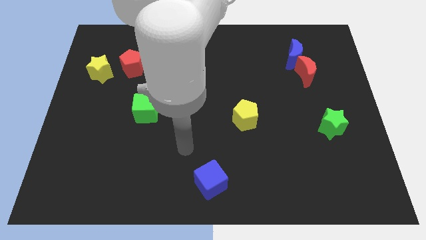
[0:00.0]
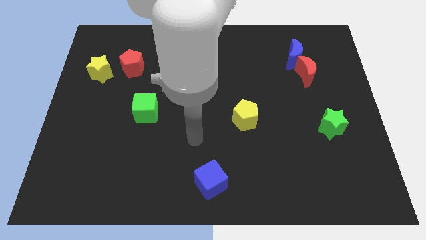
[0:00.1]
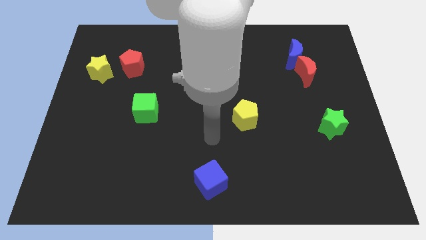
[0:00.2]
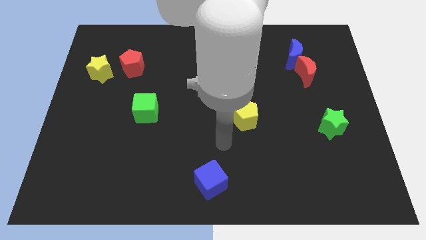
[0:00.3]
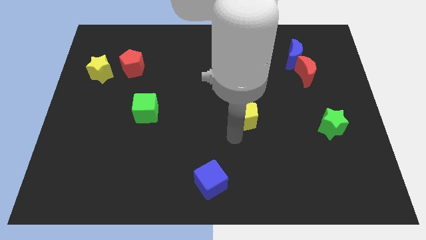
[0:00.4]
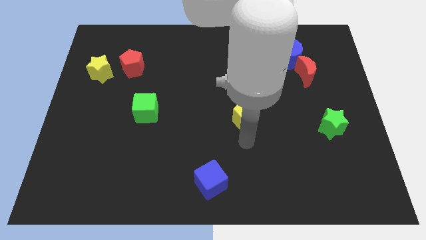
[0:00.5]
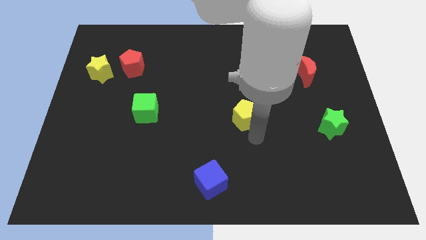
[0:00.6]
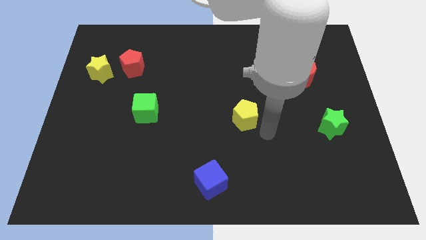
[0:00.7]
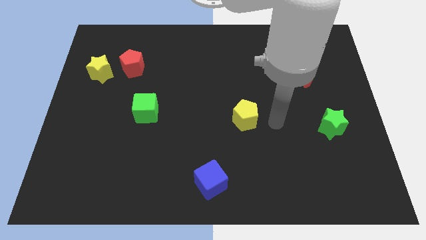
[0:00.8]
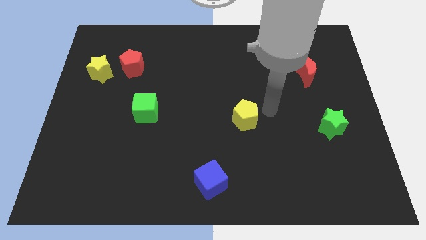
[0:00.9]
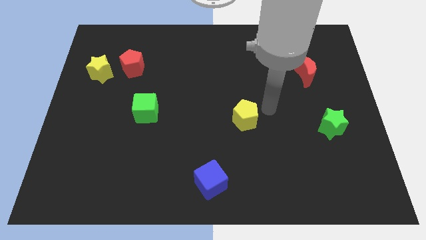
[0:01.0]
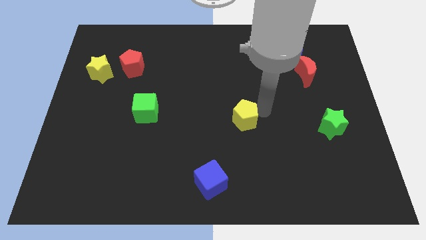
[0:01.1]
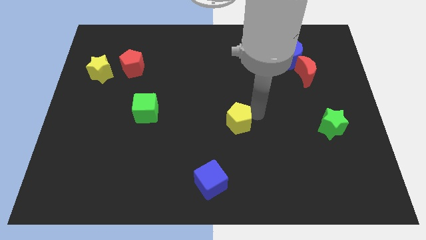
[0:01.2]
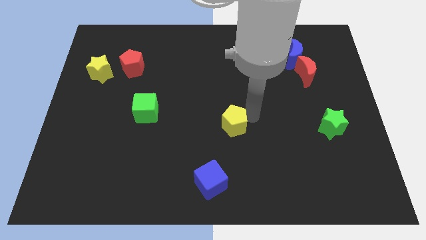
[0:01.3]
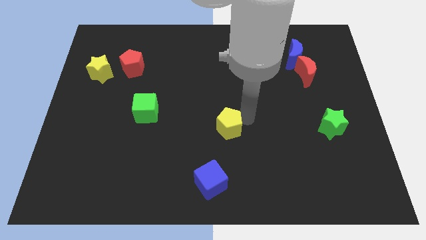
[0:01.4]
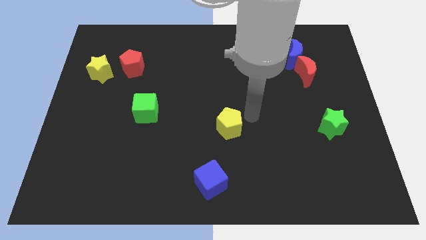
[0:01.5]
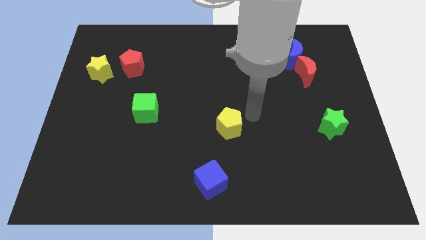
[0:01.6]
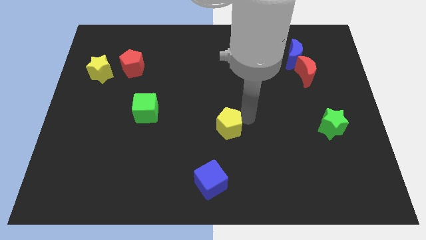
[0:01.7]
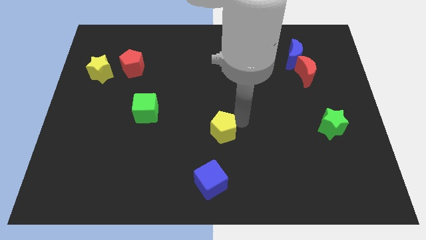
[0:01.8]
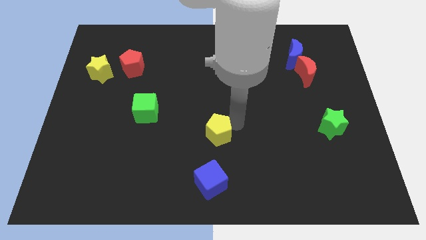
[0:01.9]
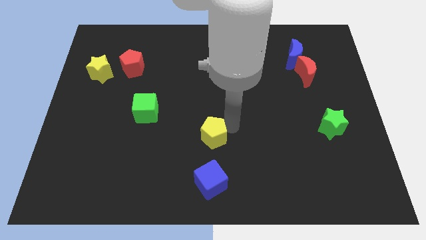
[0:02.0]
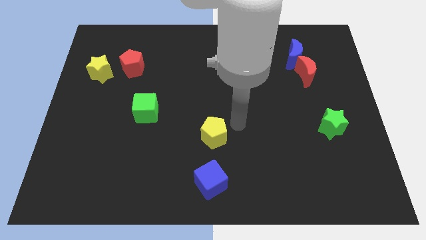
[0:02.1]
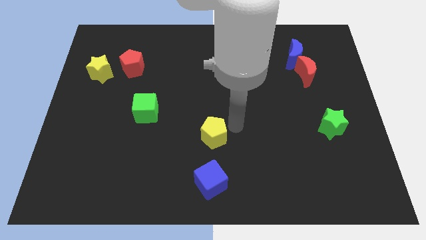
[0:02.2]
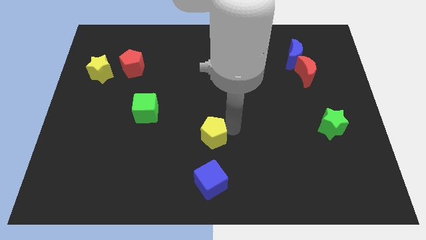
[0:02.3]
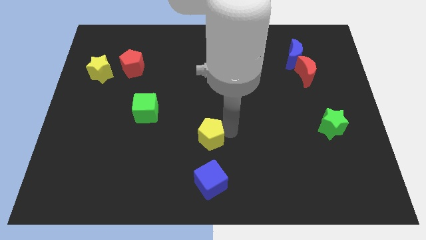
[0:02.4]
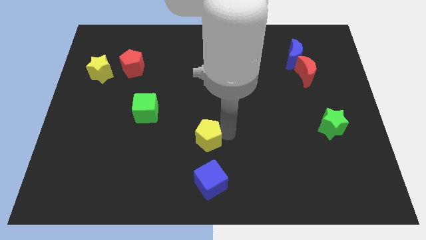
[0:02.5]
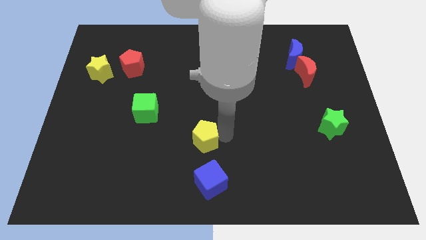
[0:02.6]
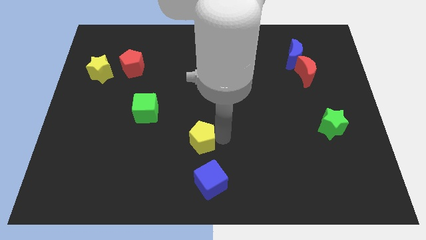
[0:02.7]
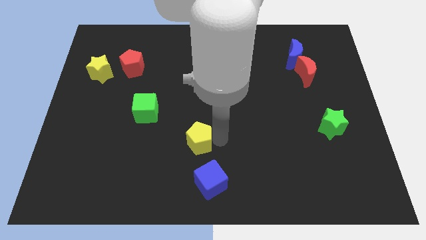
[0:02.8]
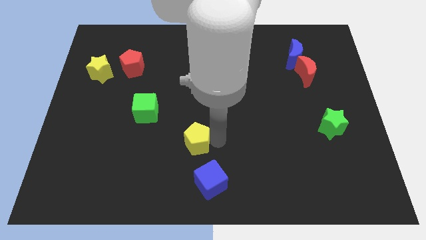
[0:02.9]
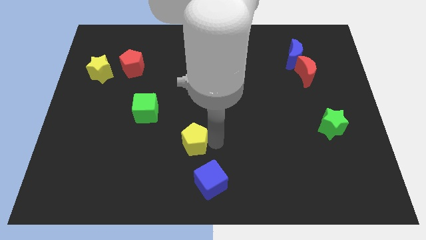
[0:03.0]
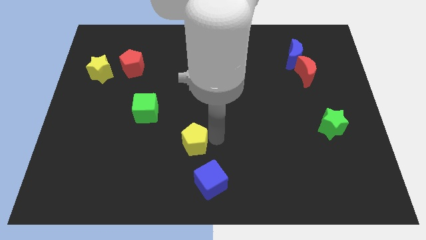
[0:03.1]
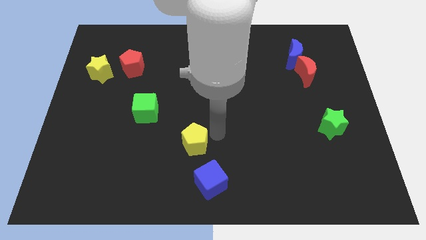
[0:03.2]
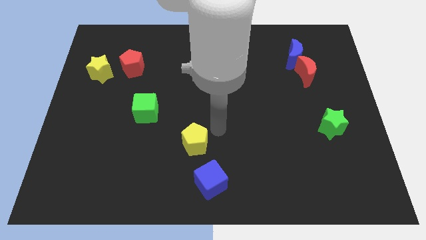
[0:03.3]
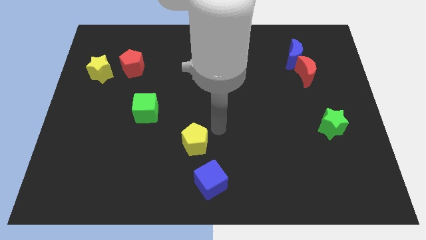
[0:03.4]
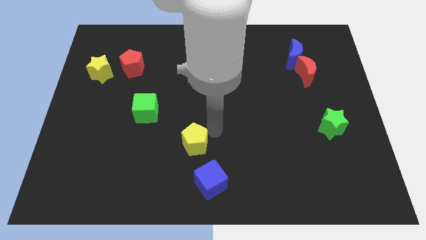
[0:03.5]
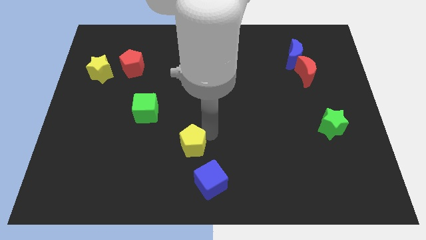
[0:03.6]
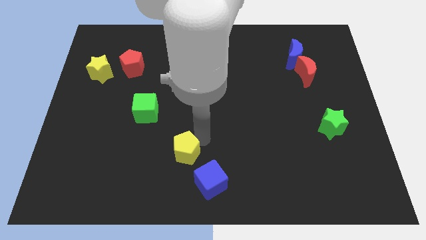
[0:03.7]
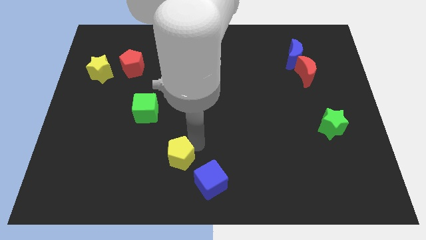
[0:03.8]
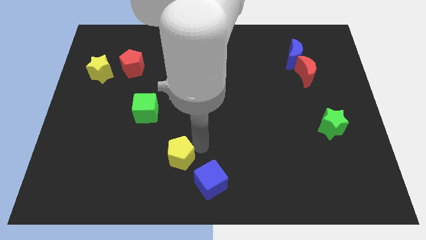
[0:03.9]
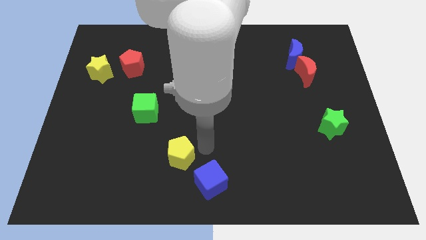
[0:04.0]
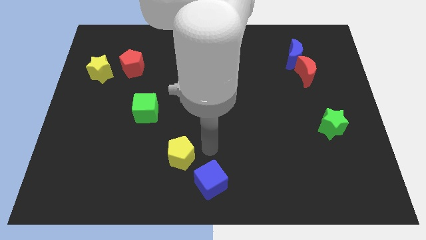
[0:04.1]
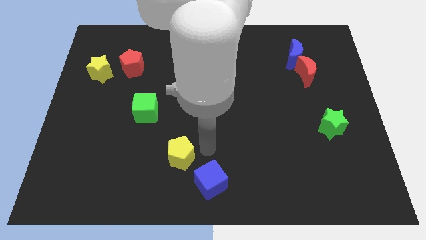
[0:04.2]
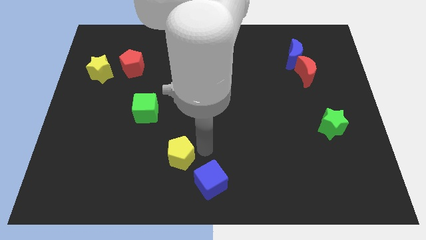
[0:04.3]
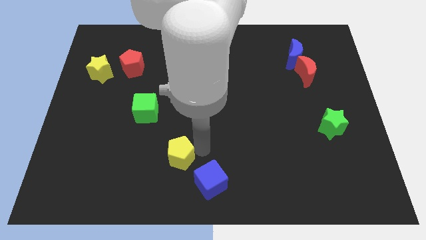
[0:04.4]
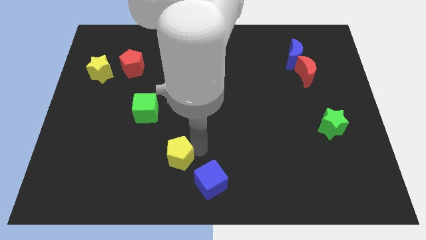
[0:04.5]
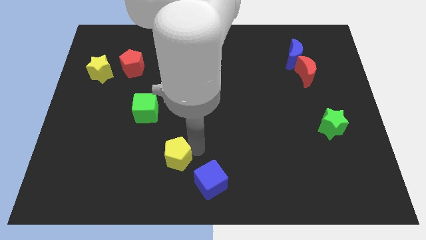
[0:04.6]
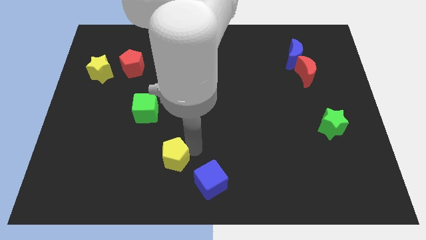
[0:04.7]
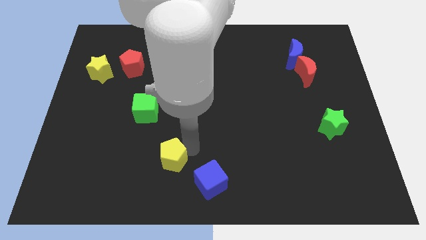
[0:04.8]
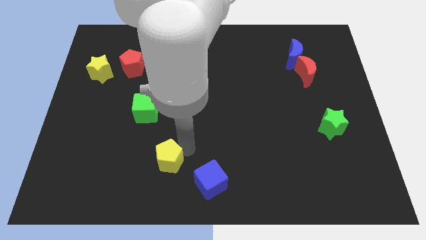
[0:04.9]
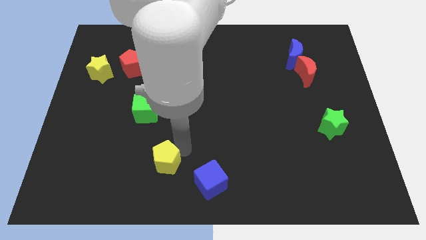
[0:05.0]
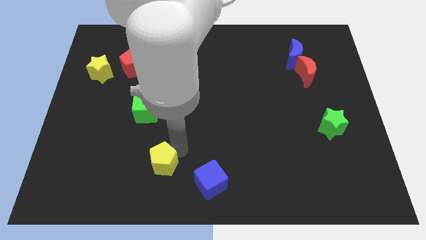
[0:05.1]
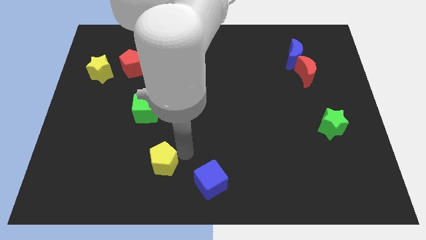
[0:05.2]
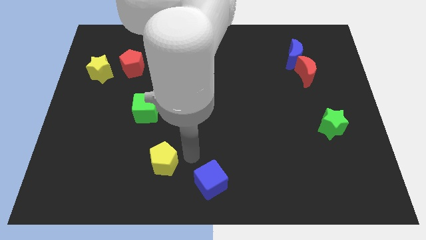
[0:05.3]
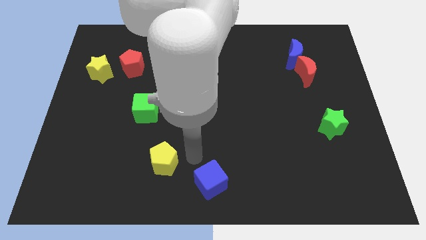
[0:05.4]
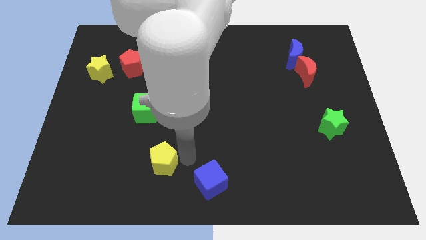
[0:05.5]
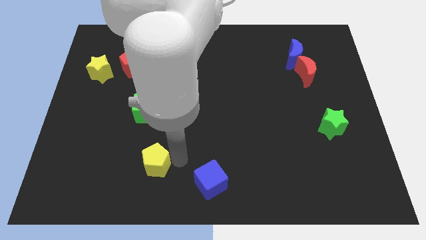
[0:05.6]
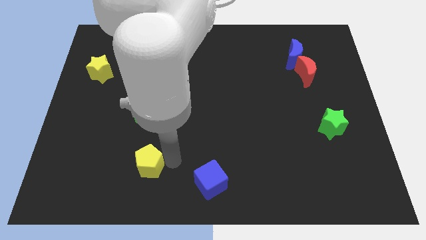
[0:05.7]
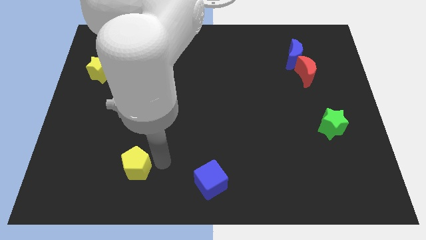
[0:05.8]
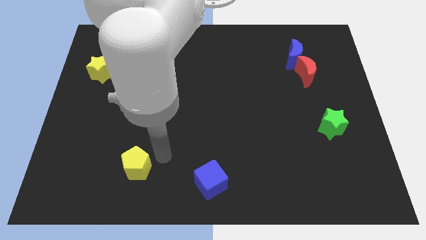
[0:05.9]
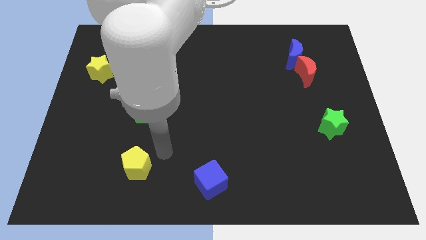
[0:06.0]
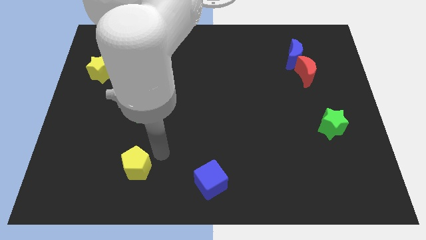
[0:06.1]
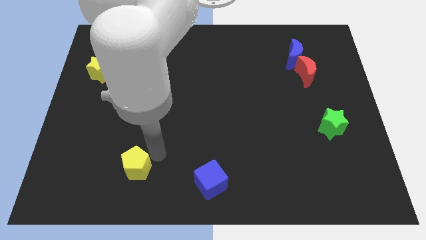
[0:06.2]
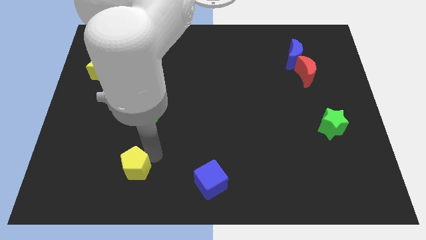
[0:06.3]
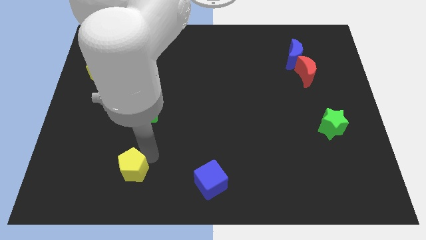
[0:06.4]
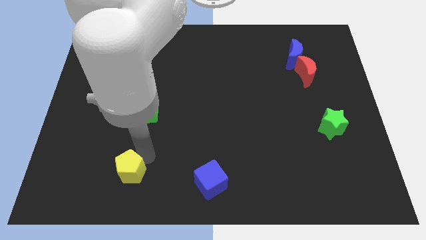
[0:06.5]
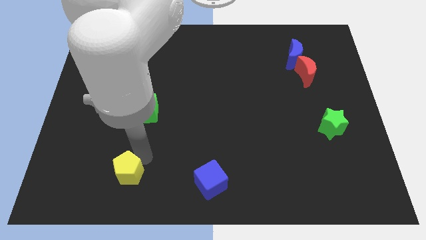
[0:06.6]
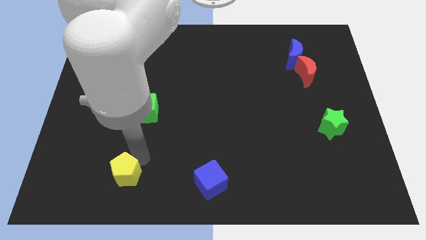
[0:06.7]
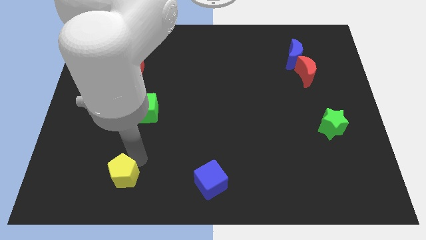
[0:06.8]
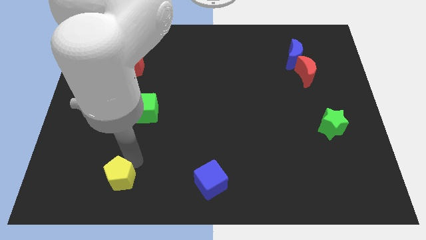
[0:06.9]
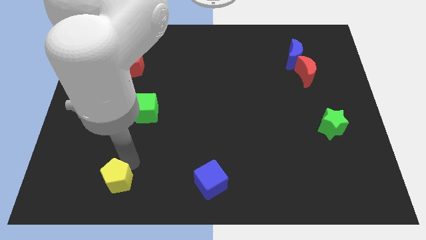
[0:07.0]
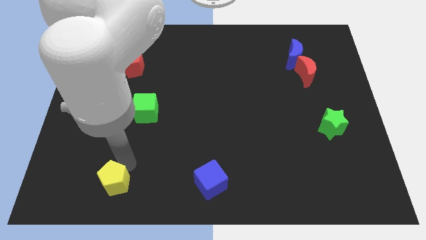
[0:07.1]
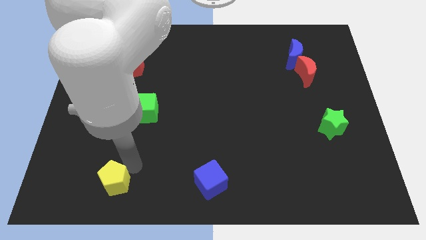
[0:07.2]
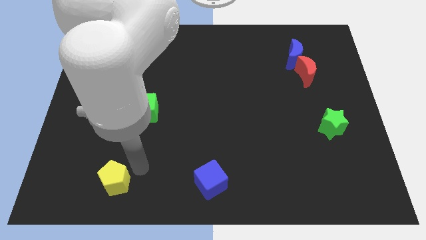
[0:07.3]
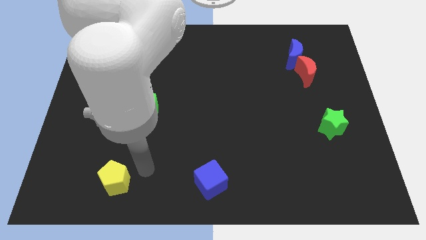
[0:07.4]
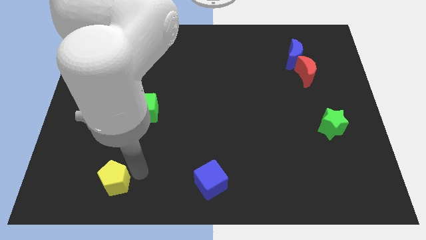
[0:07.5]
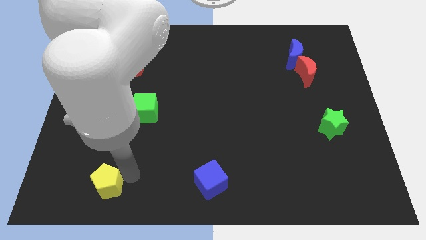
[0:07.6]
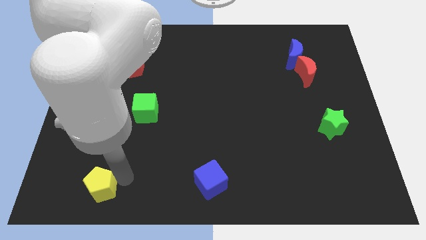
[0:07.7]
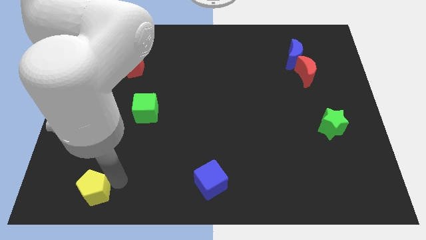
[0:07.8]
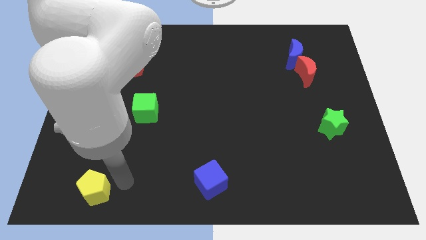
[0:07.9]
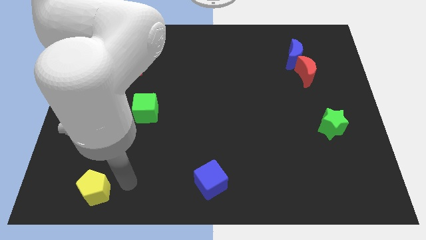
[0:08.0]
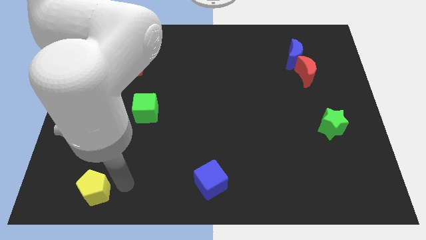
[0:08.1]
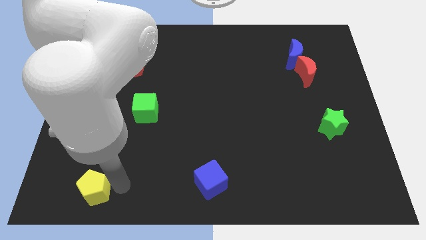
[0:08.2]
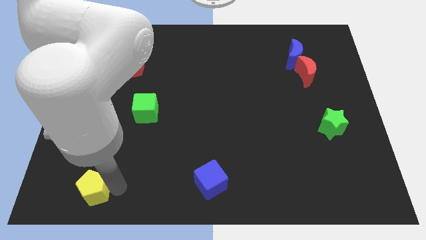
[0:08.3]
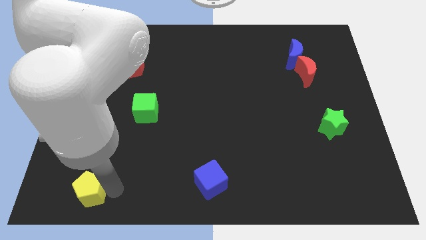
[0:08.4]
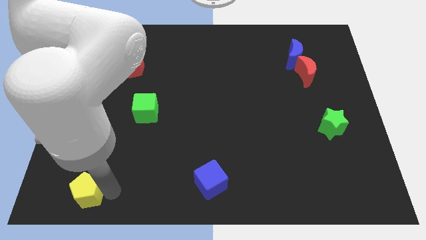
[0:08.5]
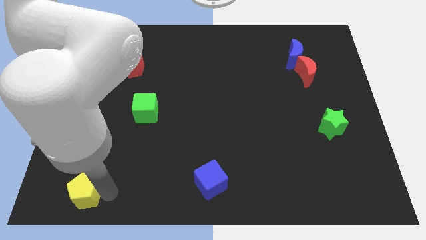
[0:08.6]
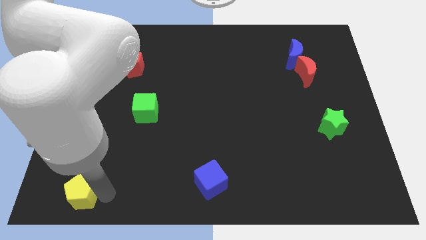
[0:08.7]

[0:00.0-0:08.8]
put the yellow pentagon to the bottom left
